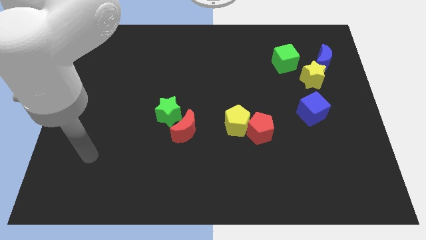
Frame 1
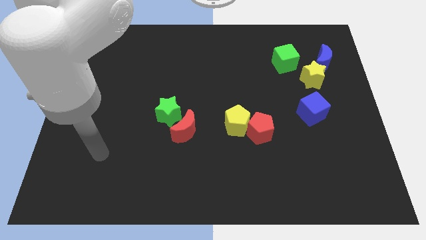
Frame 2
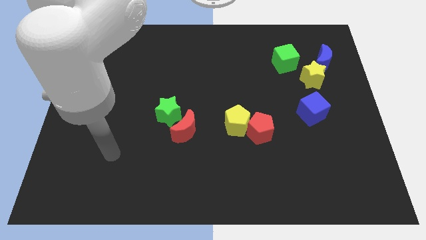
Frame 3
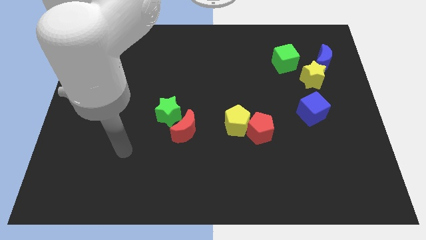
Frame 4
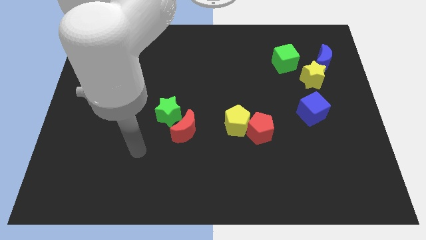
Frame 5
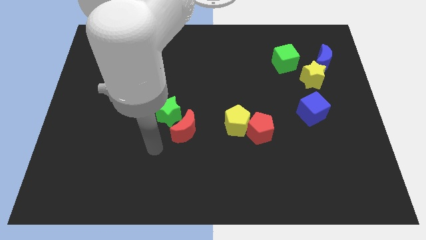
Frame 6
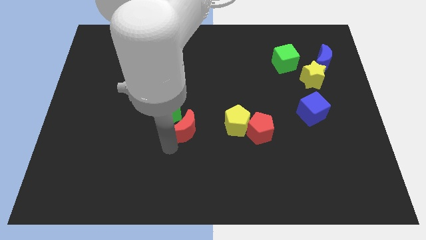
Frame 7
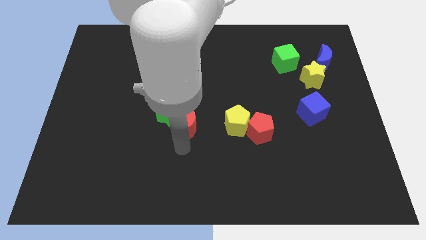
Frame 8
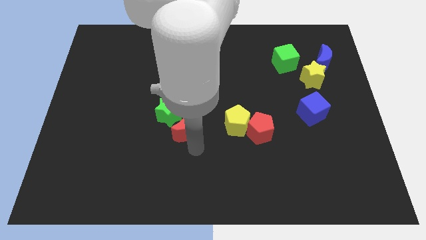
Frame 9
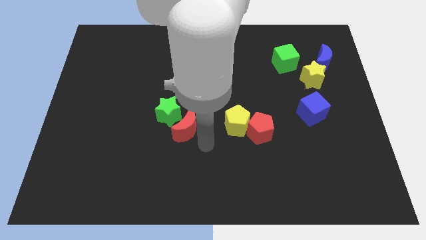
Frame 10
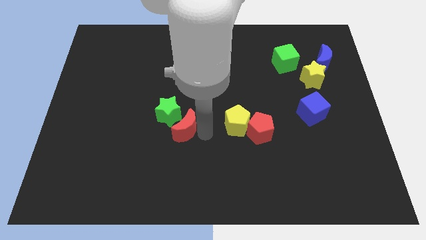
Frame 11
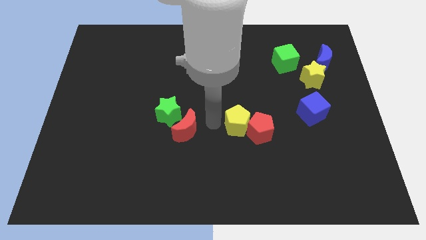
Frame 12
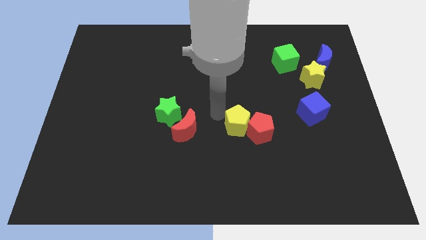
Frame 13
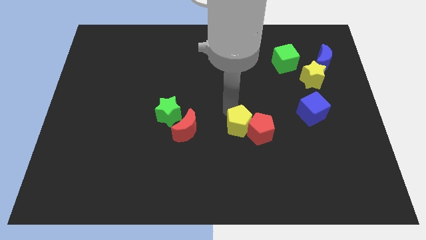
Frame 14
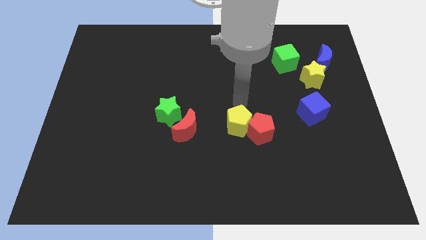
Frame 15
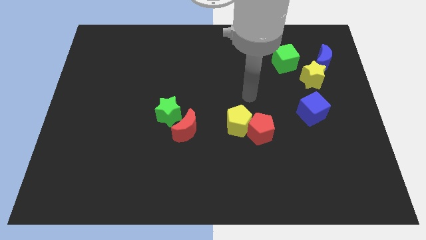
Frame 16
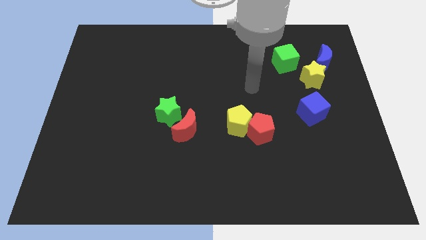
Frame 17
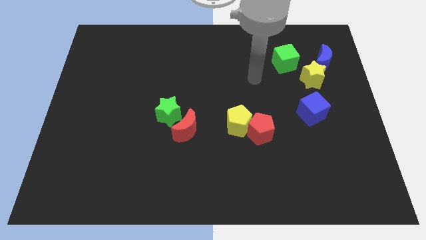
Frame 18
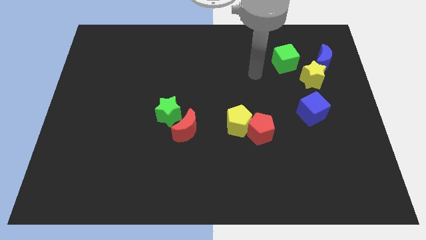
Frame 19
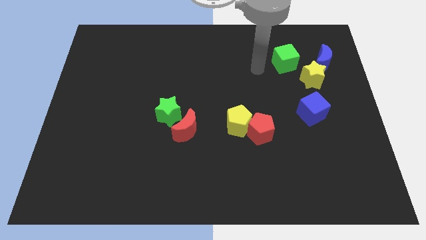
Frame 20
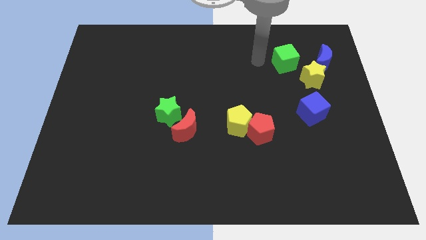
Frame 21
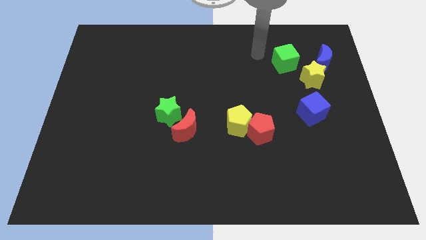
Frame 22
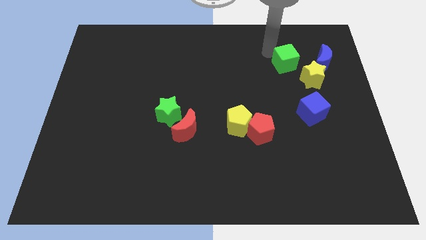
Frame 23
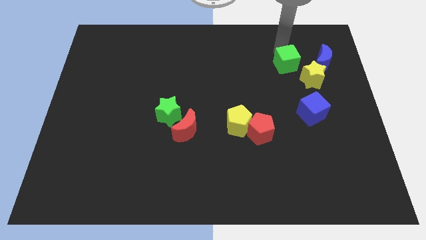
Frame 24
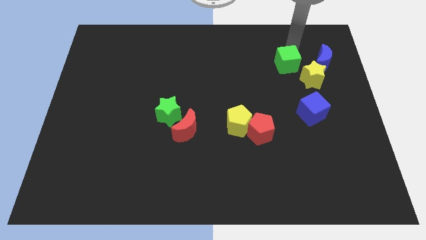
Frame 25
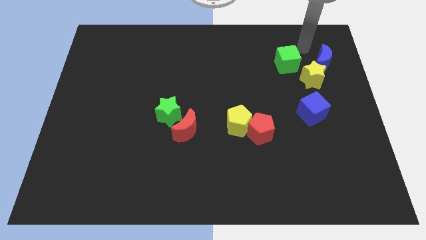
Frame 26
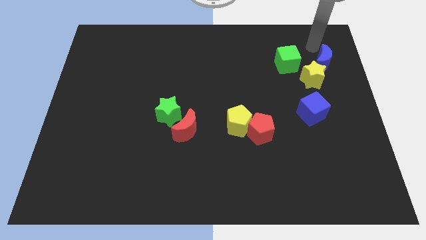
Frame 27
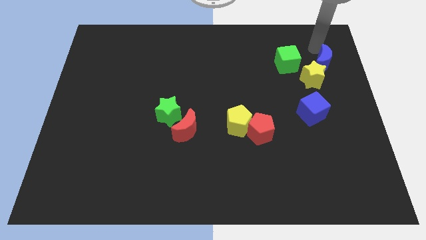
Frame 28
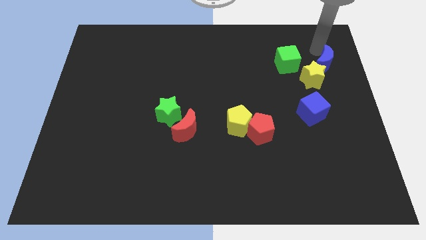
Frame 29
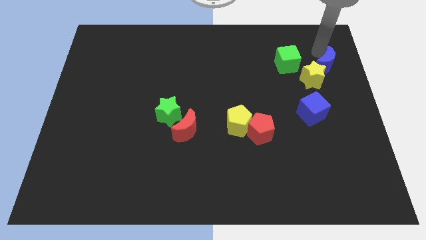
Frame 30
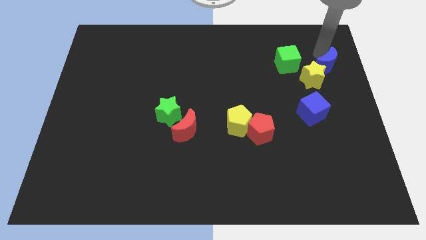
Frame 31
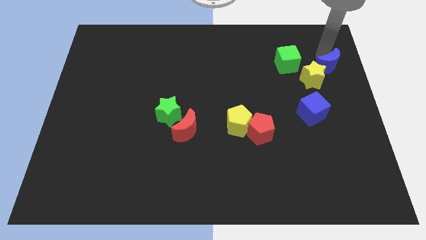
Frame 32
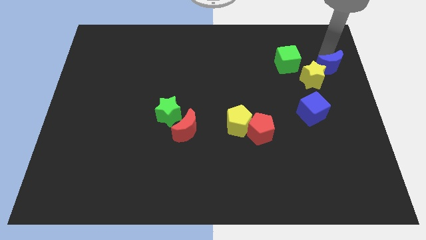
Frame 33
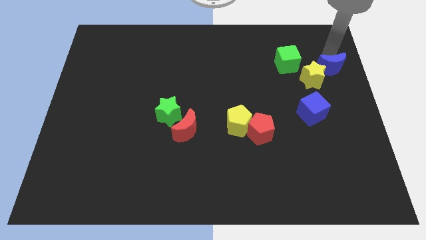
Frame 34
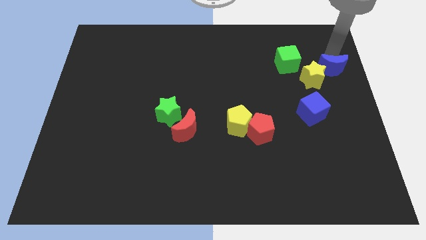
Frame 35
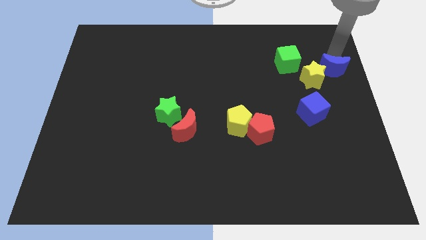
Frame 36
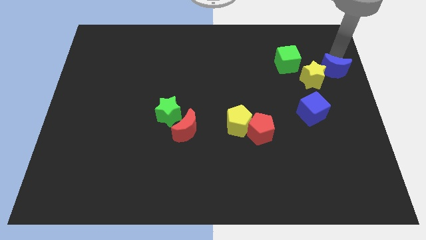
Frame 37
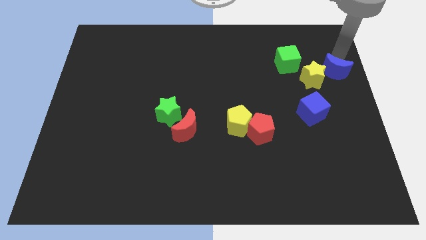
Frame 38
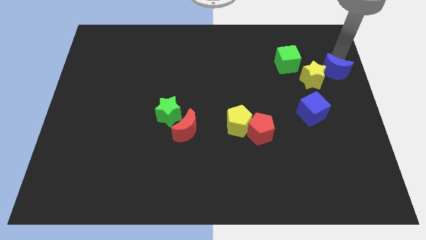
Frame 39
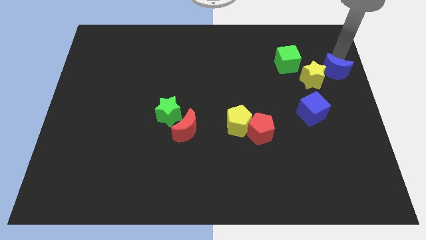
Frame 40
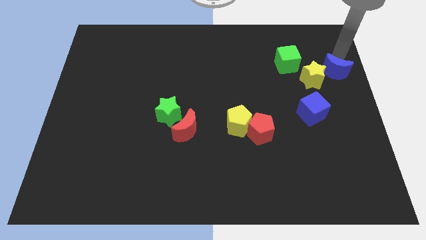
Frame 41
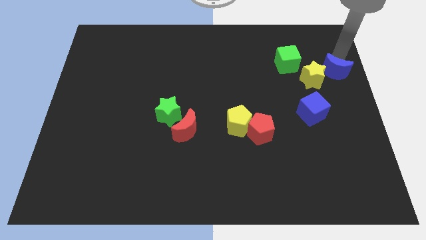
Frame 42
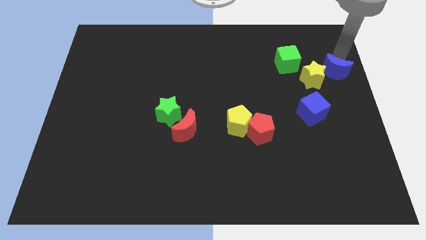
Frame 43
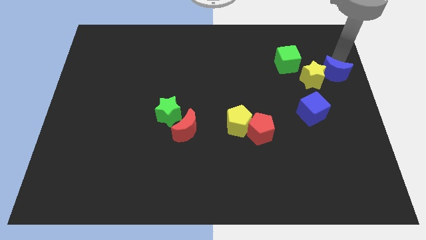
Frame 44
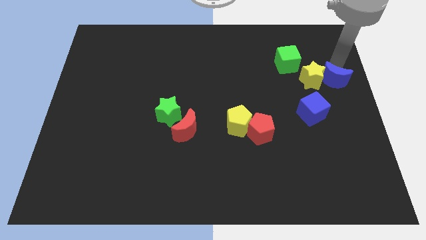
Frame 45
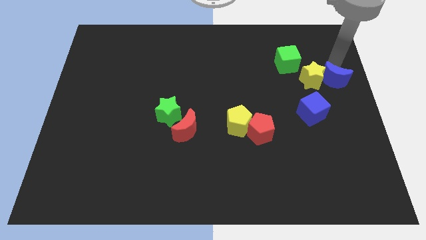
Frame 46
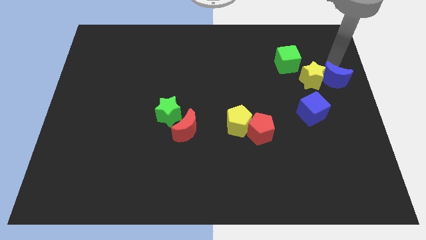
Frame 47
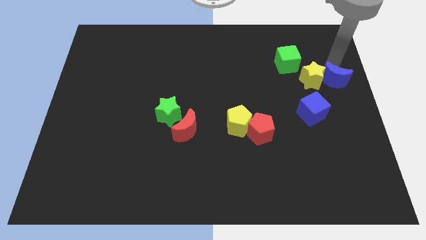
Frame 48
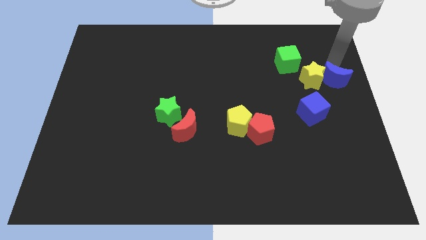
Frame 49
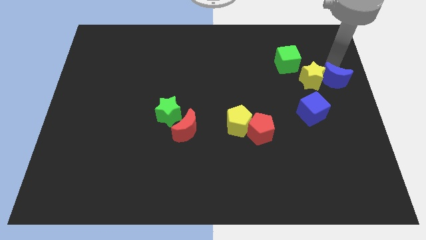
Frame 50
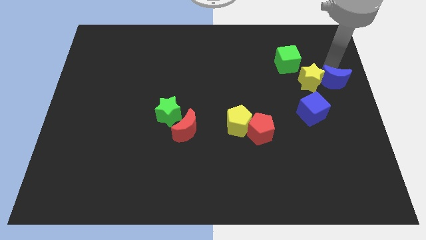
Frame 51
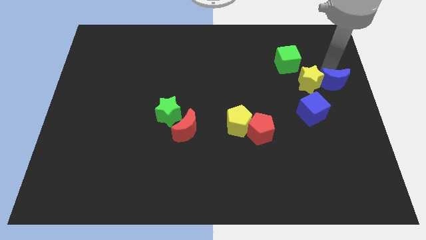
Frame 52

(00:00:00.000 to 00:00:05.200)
push the blue moon slightly down

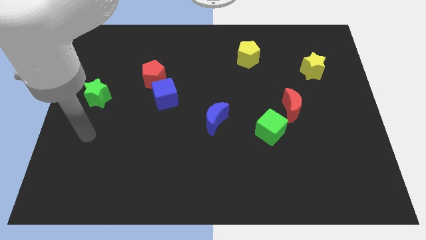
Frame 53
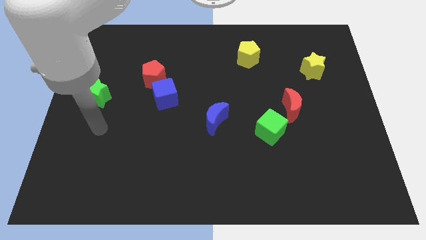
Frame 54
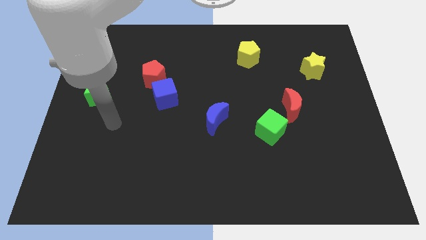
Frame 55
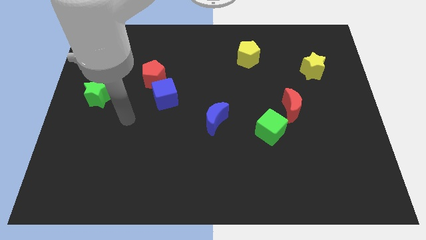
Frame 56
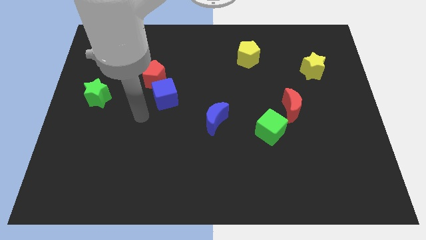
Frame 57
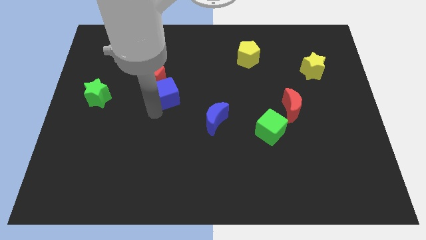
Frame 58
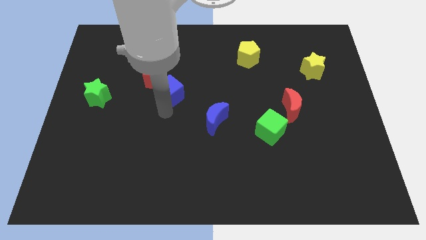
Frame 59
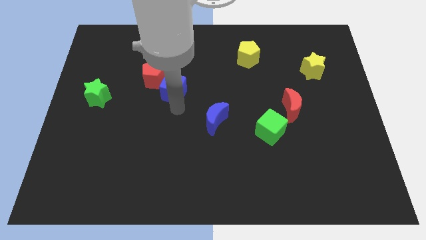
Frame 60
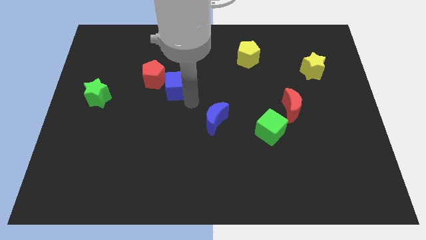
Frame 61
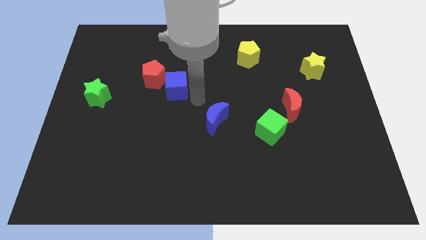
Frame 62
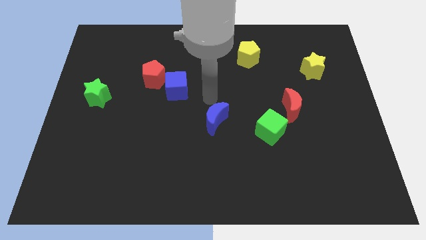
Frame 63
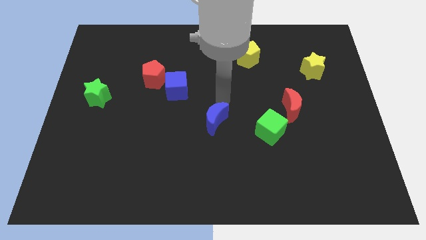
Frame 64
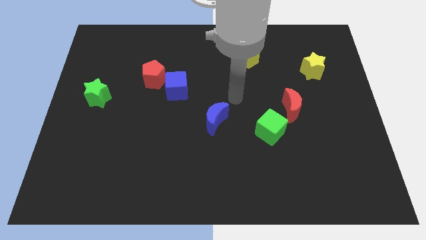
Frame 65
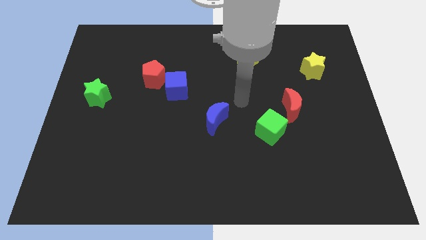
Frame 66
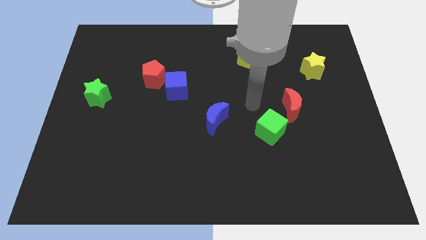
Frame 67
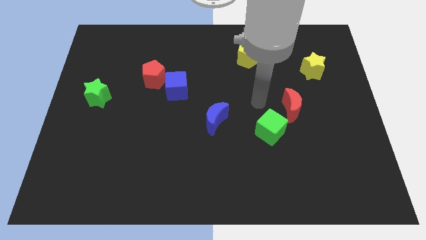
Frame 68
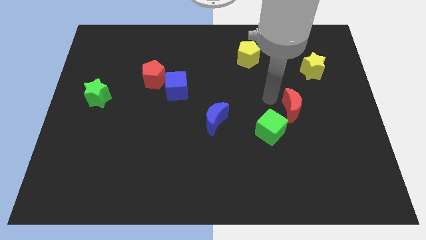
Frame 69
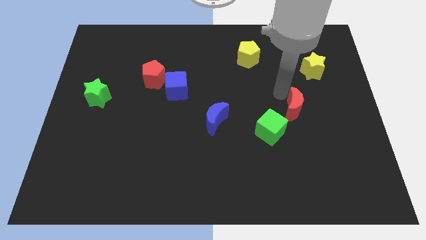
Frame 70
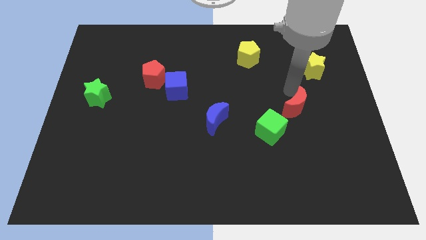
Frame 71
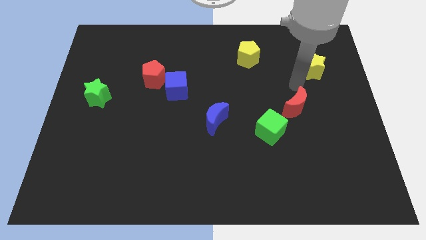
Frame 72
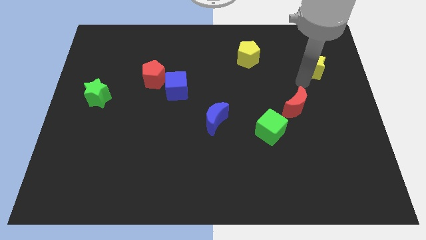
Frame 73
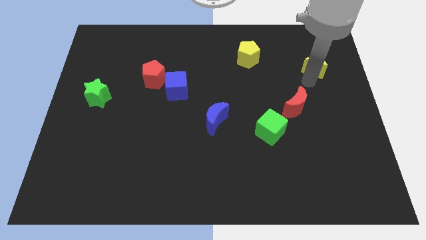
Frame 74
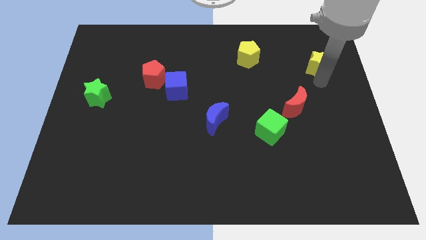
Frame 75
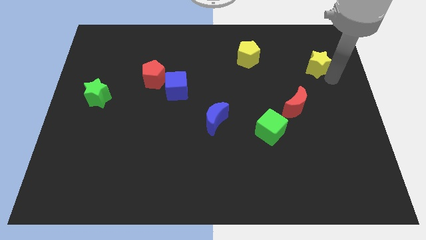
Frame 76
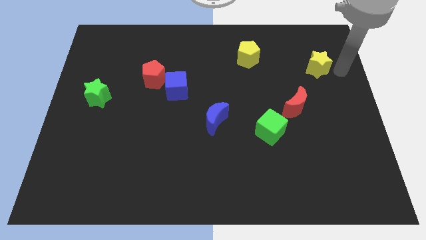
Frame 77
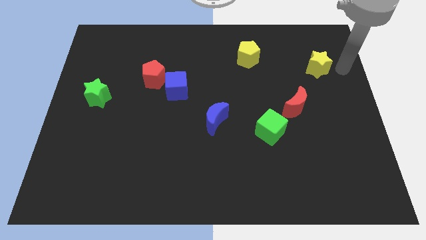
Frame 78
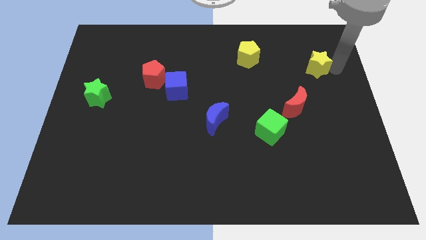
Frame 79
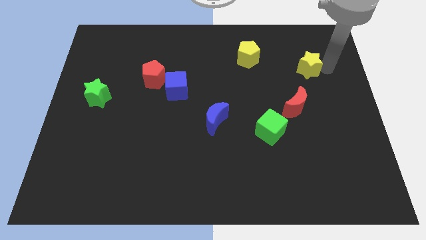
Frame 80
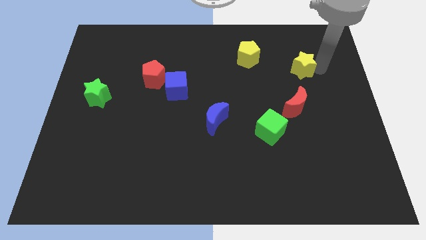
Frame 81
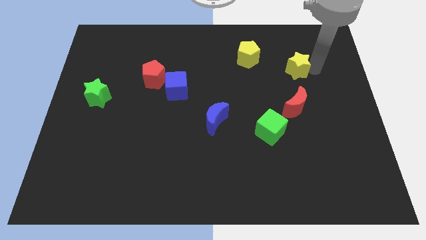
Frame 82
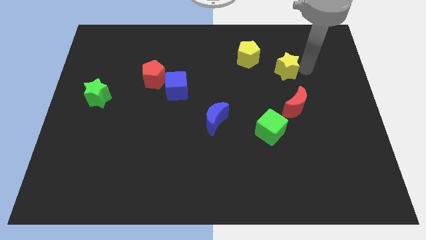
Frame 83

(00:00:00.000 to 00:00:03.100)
slide the yellow star a bit to the left

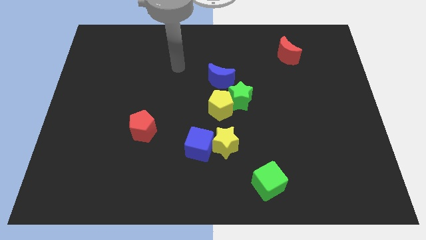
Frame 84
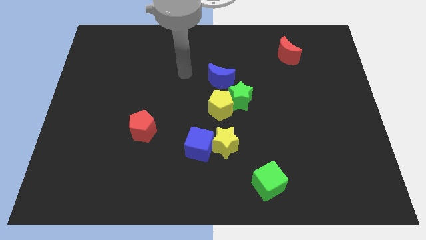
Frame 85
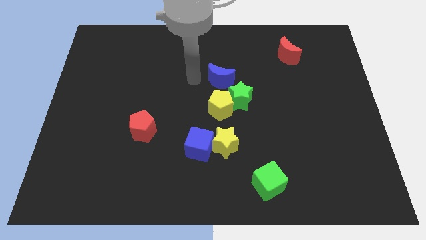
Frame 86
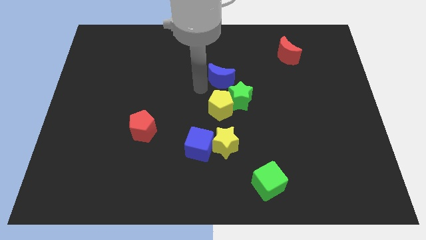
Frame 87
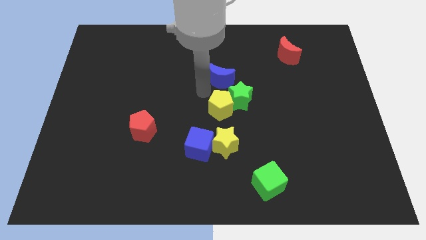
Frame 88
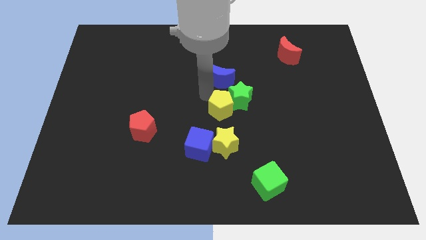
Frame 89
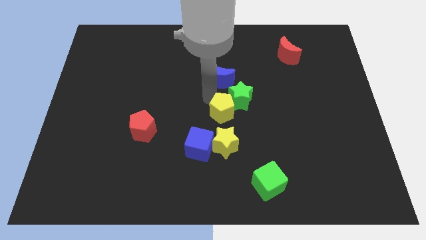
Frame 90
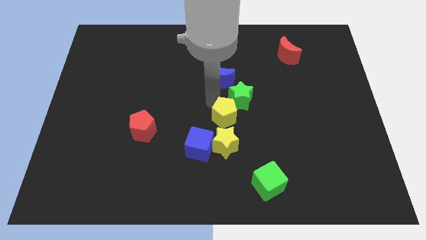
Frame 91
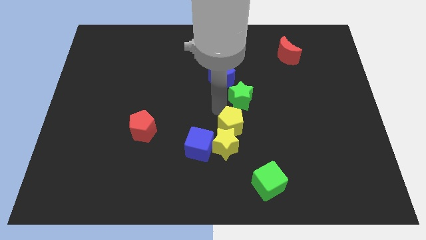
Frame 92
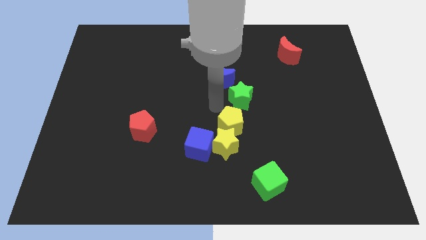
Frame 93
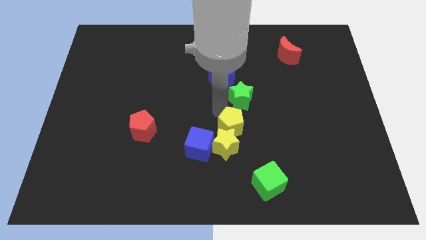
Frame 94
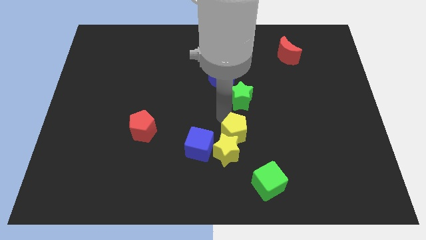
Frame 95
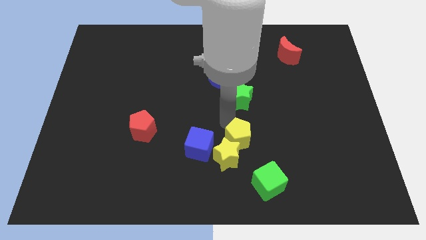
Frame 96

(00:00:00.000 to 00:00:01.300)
slightly push the yellow pentagon downwards
